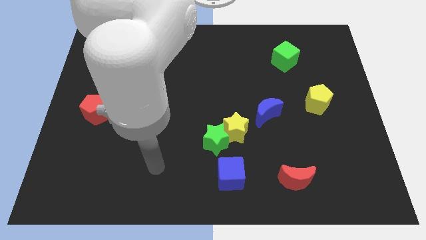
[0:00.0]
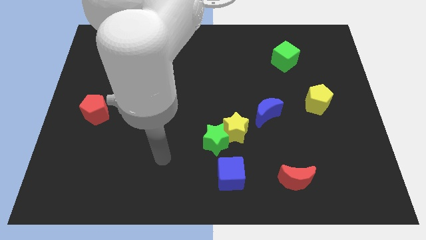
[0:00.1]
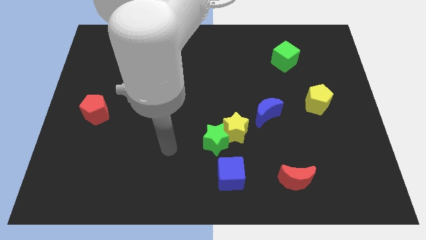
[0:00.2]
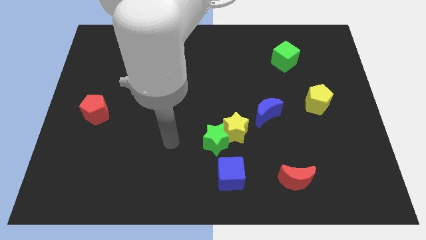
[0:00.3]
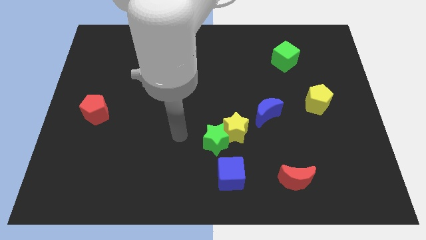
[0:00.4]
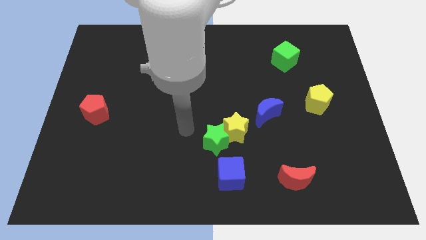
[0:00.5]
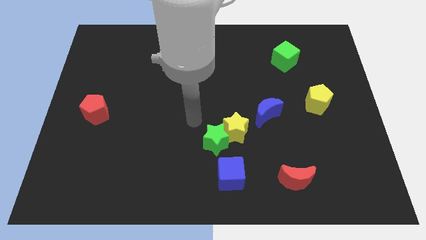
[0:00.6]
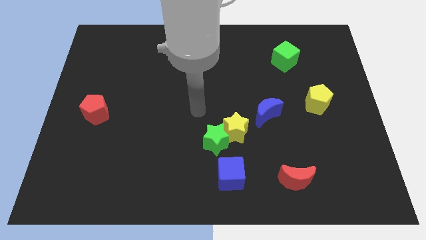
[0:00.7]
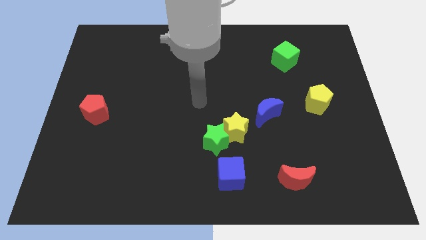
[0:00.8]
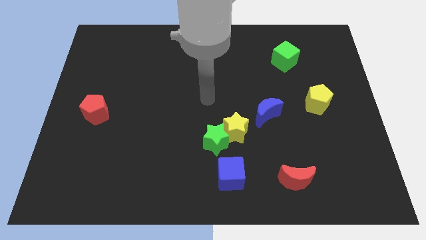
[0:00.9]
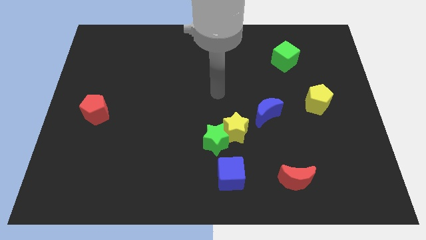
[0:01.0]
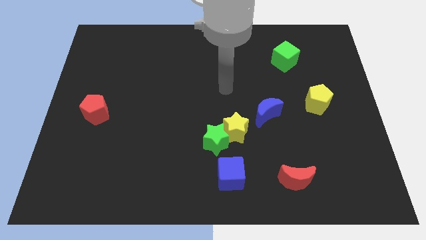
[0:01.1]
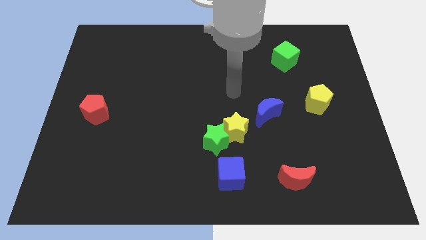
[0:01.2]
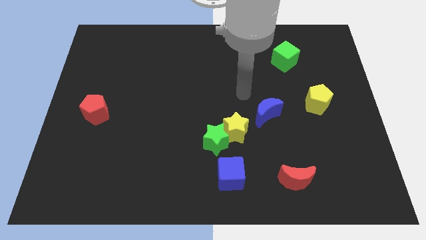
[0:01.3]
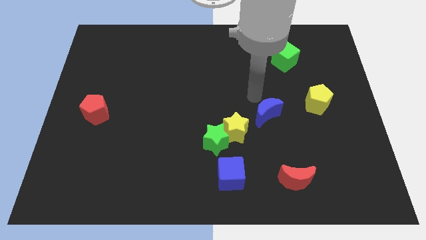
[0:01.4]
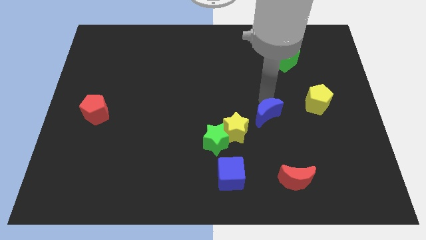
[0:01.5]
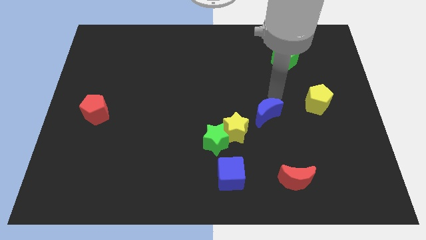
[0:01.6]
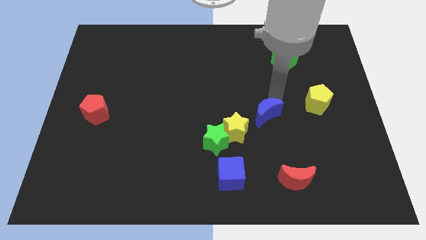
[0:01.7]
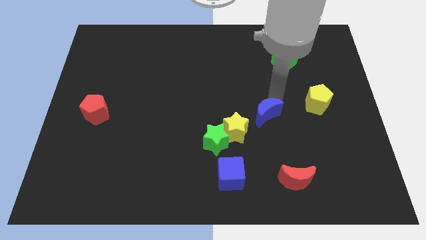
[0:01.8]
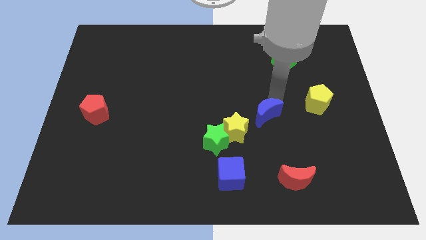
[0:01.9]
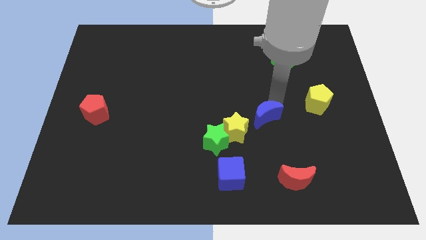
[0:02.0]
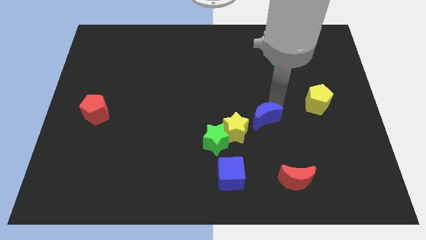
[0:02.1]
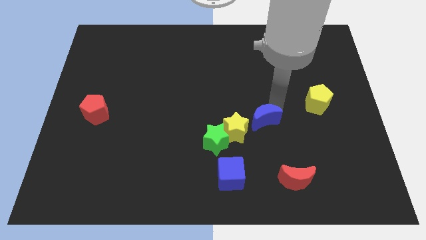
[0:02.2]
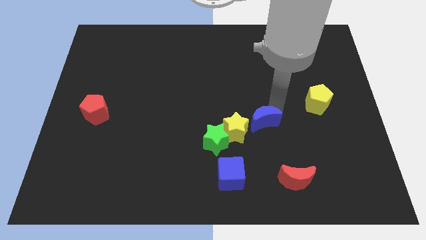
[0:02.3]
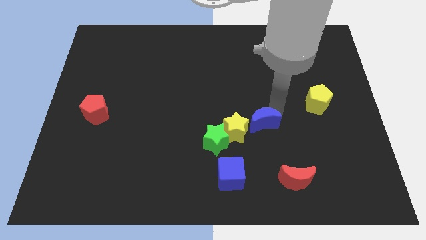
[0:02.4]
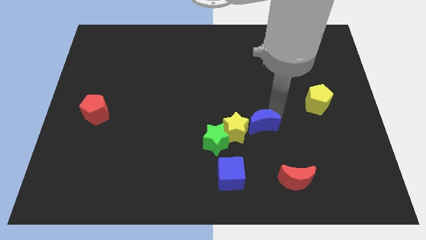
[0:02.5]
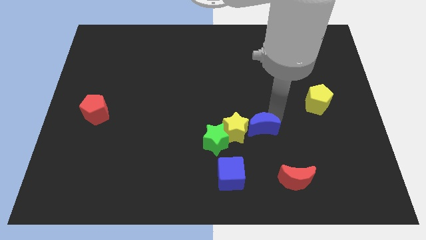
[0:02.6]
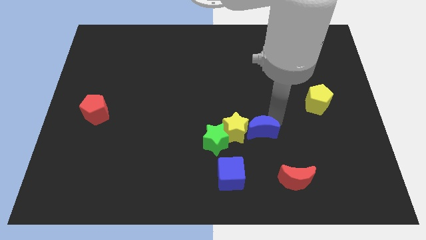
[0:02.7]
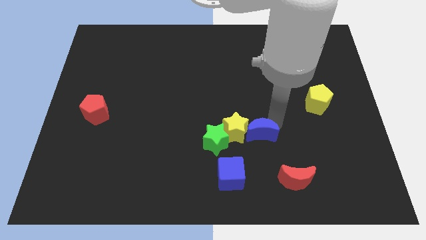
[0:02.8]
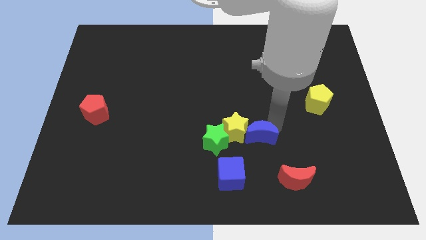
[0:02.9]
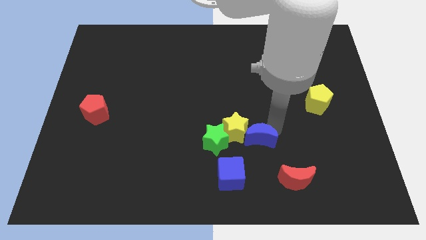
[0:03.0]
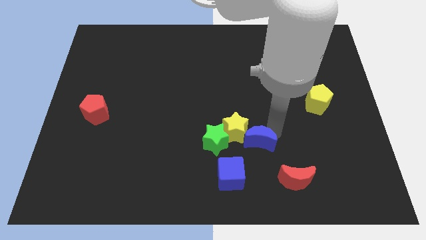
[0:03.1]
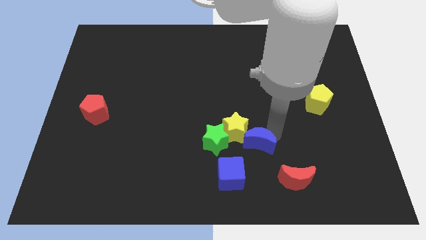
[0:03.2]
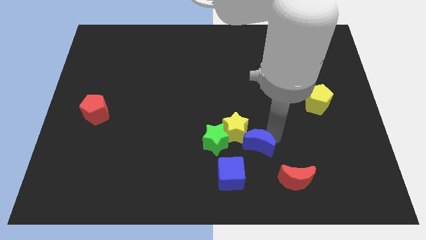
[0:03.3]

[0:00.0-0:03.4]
move the blue moon down and left diagonally a little bit

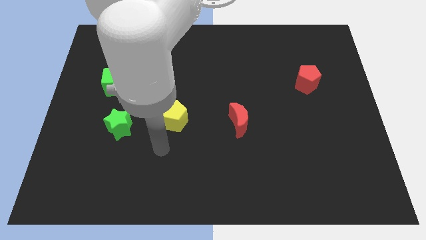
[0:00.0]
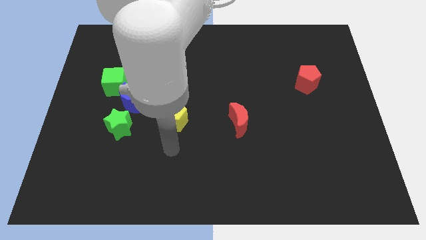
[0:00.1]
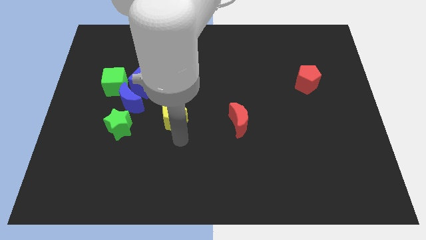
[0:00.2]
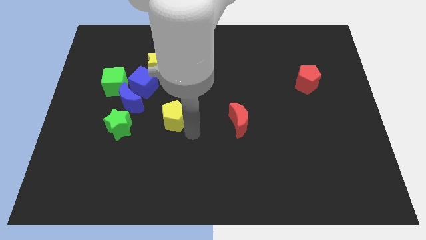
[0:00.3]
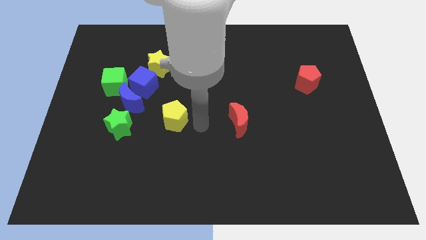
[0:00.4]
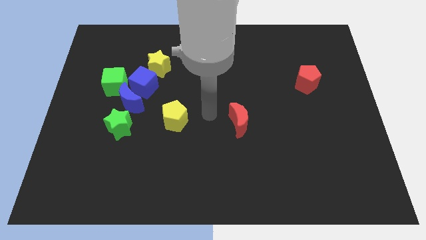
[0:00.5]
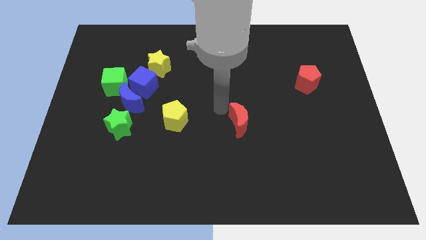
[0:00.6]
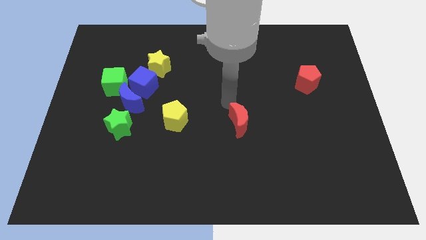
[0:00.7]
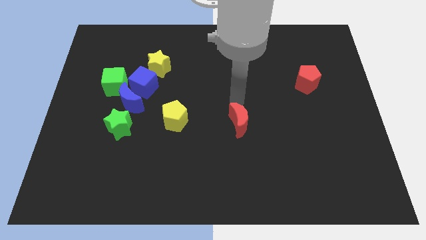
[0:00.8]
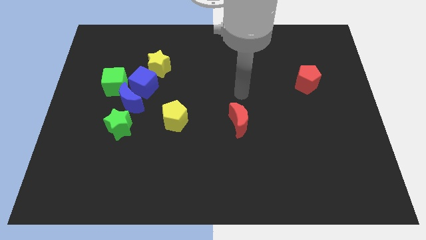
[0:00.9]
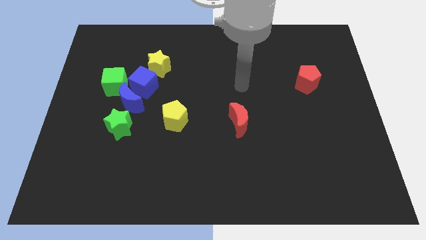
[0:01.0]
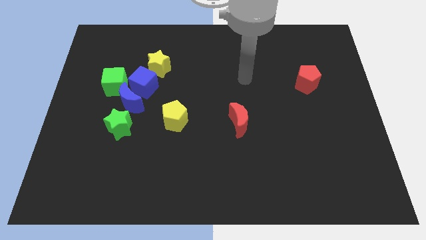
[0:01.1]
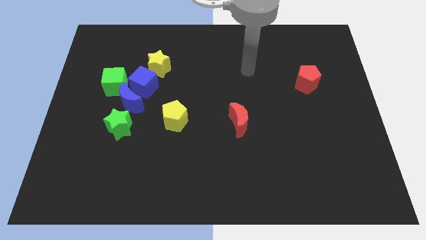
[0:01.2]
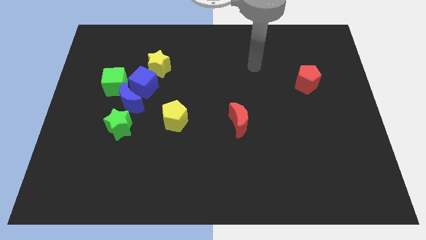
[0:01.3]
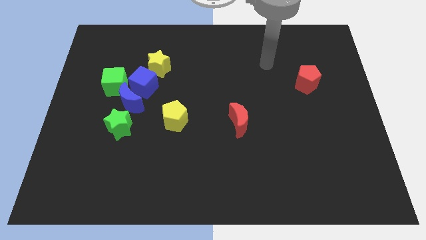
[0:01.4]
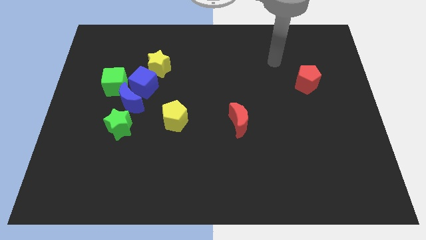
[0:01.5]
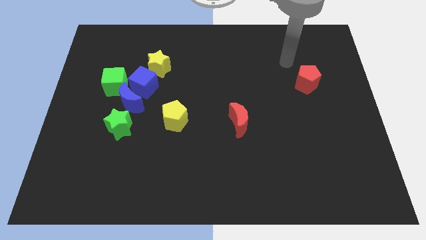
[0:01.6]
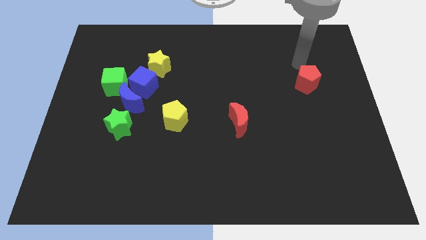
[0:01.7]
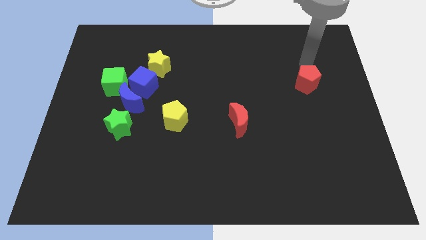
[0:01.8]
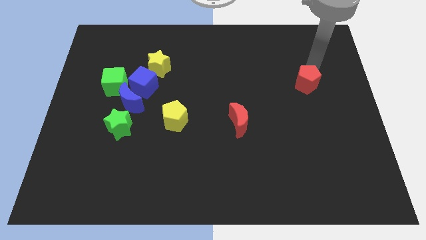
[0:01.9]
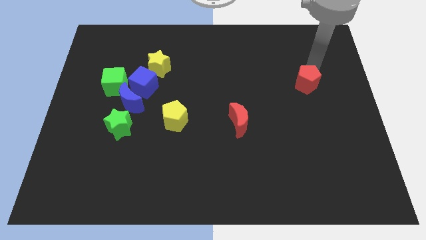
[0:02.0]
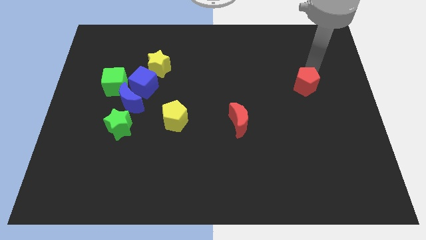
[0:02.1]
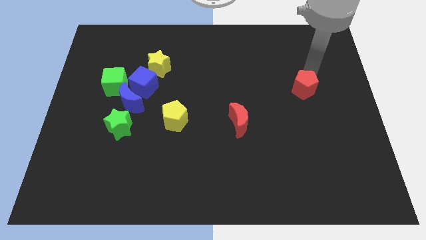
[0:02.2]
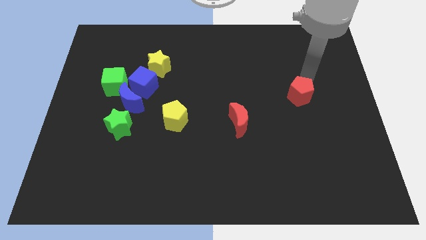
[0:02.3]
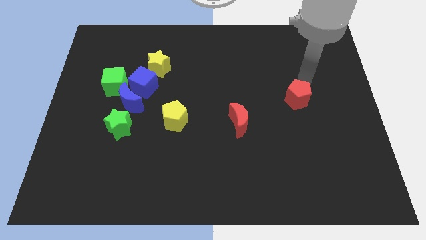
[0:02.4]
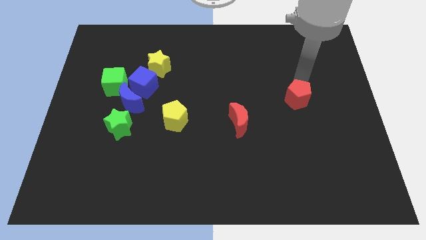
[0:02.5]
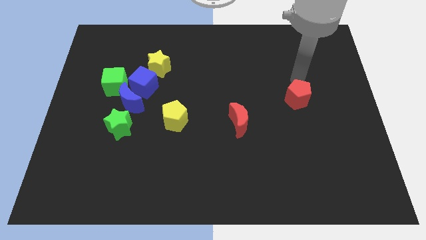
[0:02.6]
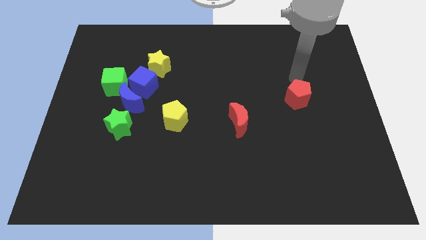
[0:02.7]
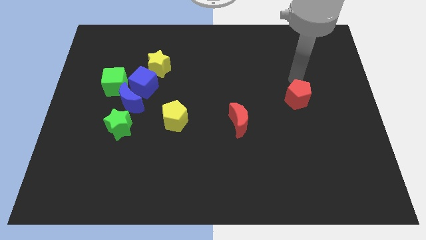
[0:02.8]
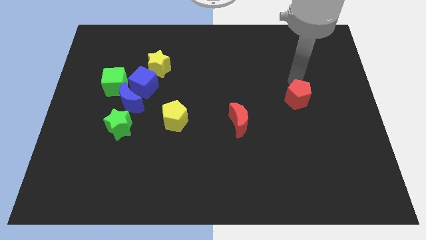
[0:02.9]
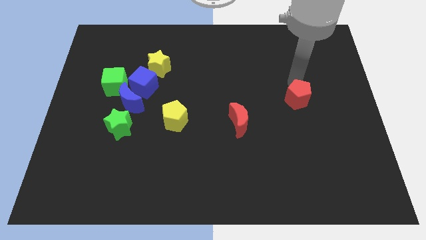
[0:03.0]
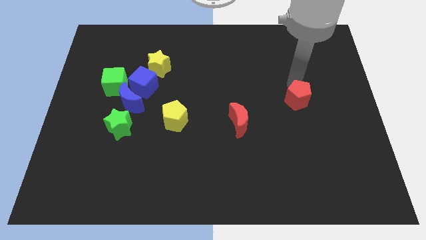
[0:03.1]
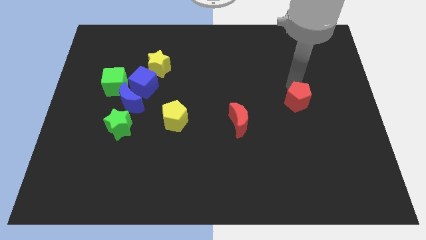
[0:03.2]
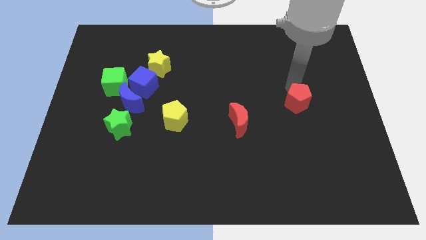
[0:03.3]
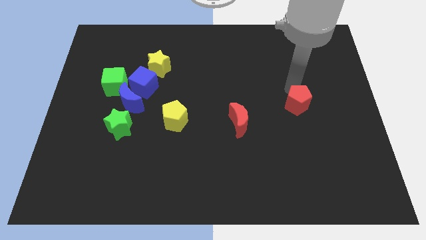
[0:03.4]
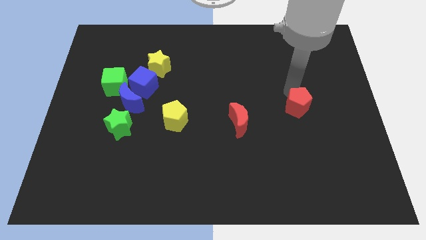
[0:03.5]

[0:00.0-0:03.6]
slide the red pentagon a little down

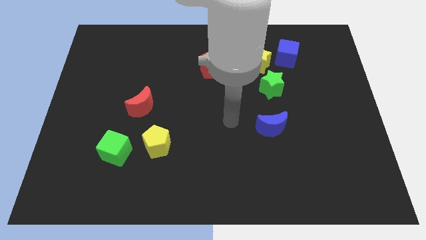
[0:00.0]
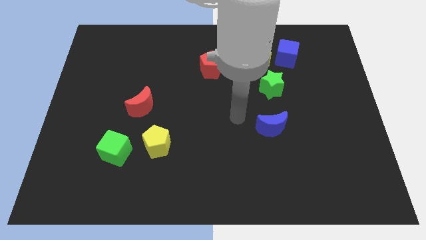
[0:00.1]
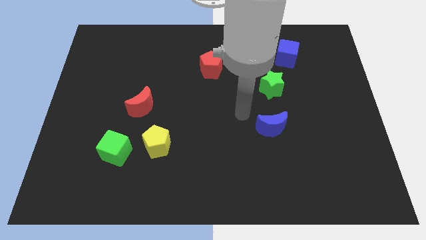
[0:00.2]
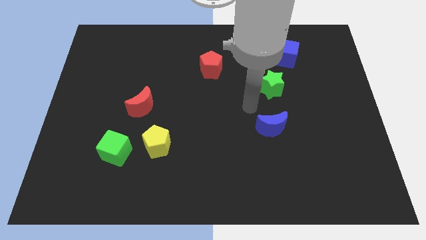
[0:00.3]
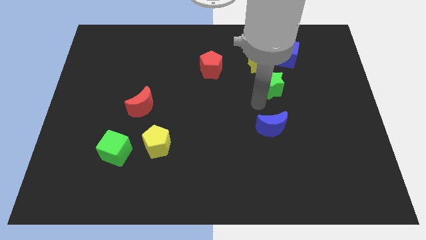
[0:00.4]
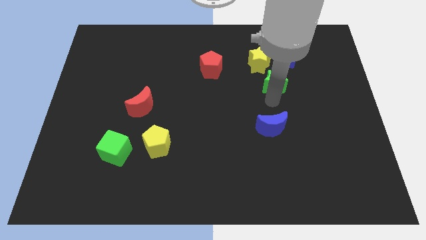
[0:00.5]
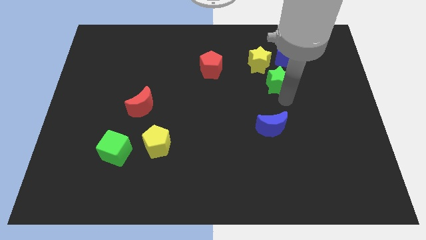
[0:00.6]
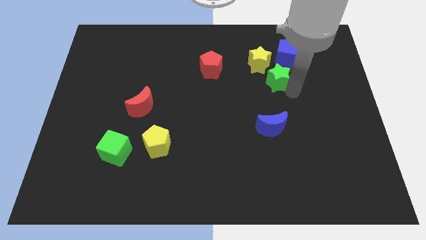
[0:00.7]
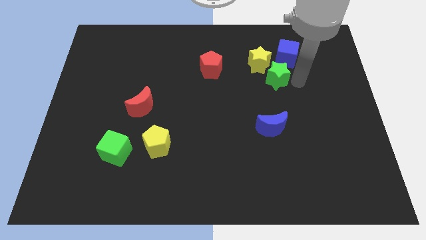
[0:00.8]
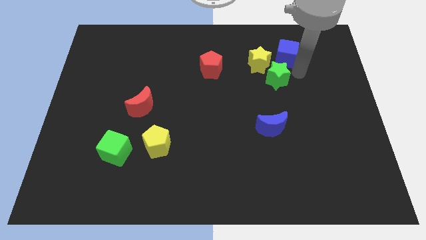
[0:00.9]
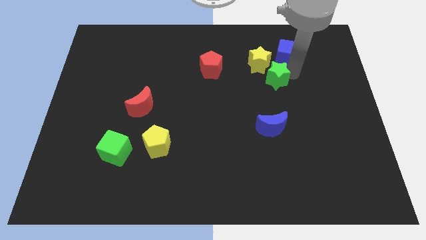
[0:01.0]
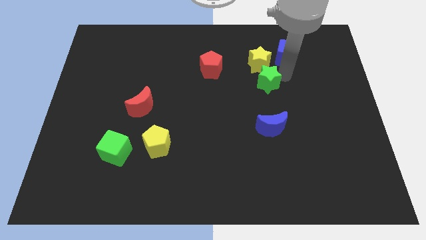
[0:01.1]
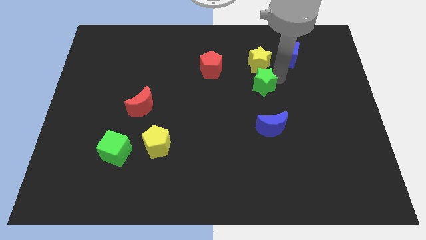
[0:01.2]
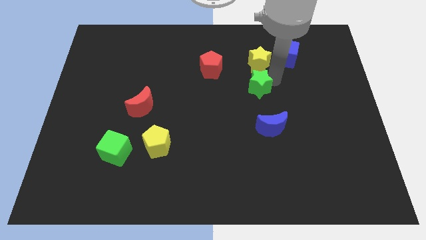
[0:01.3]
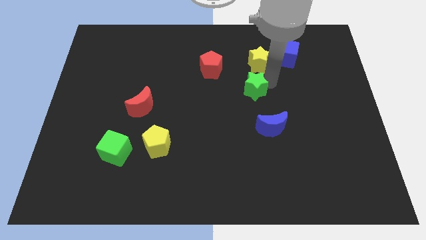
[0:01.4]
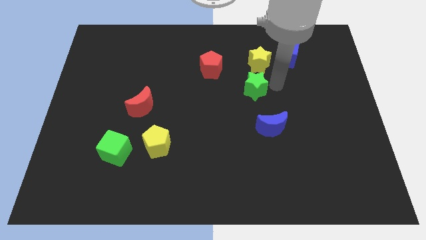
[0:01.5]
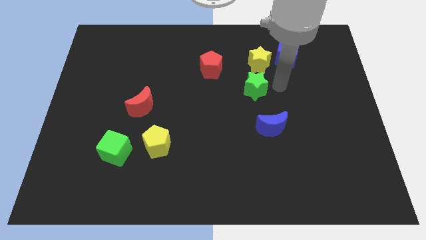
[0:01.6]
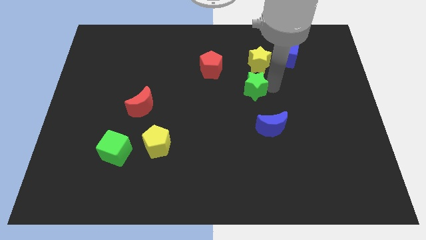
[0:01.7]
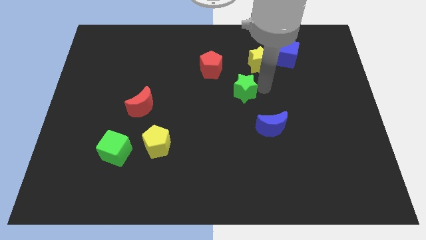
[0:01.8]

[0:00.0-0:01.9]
move the green star to the left slightly
